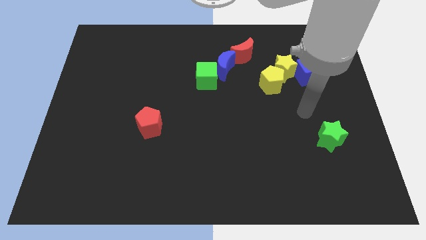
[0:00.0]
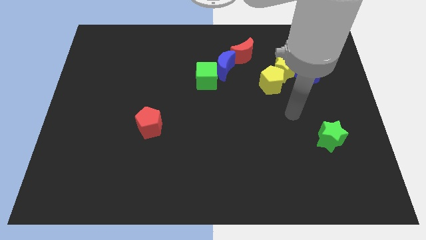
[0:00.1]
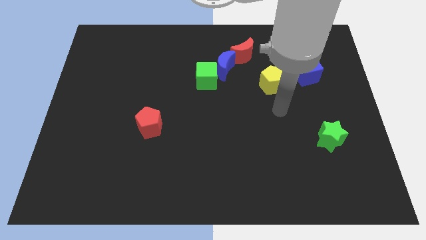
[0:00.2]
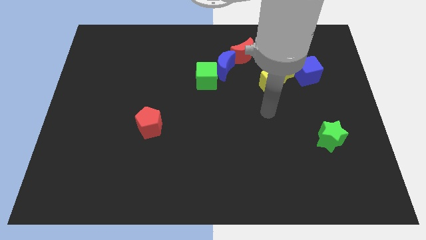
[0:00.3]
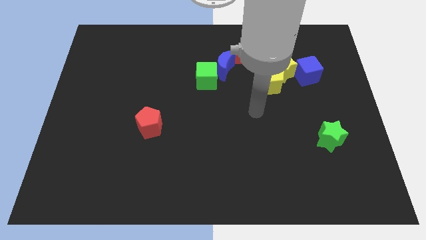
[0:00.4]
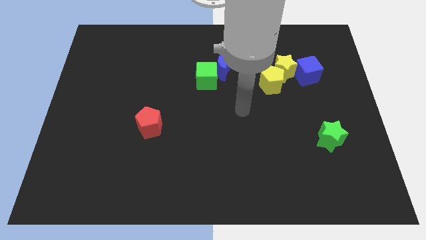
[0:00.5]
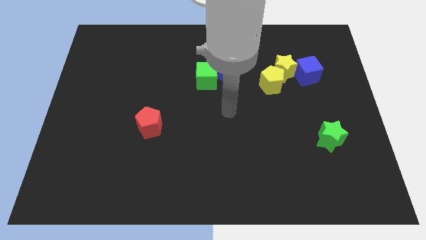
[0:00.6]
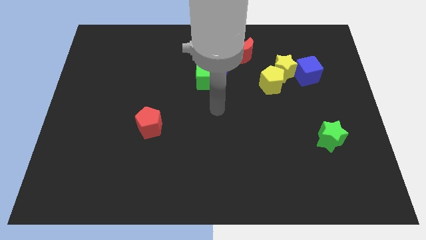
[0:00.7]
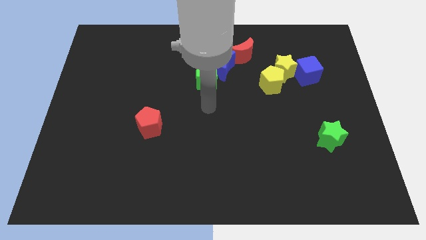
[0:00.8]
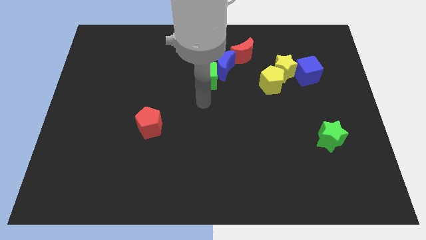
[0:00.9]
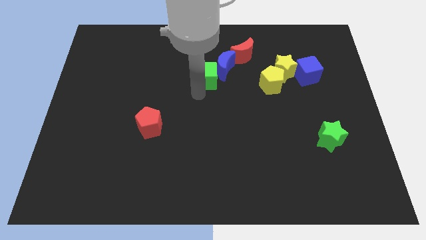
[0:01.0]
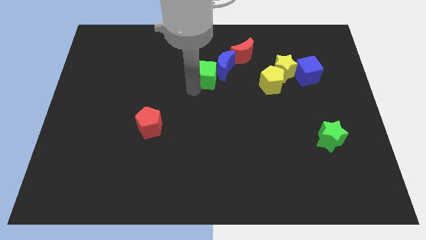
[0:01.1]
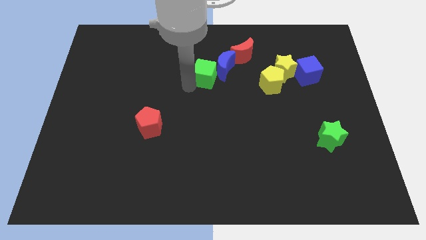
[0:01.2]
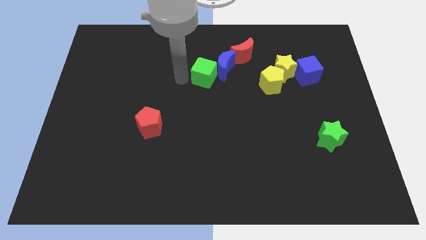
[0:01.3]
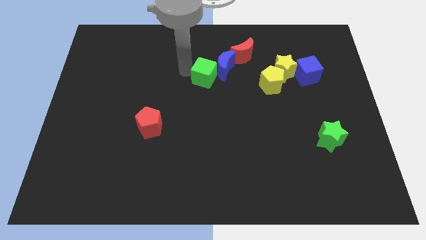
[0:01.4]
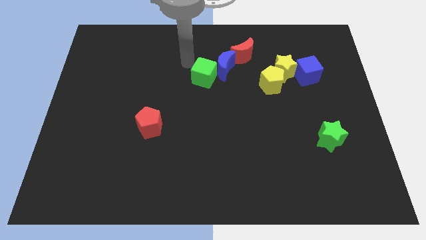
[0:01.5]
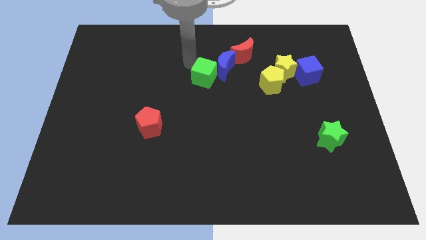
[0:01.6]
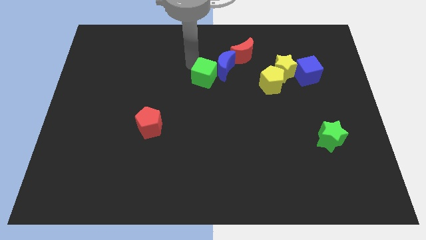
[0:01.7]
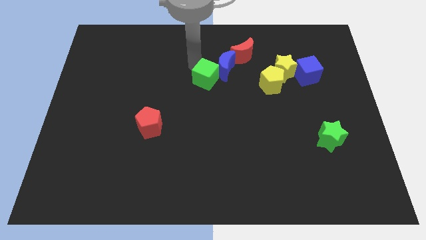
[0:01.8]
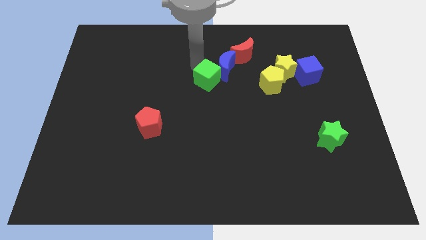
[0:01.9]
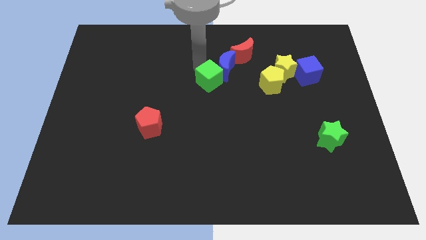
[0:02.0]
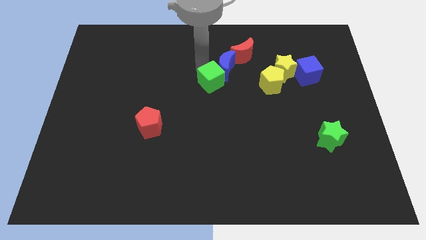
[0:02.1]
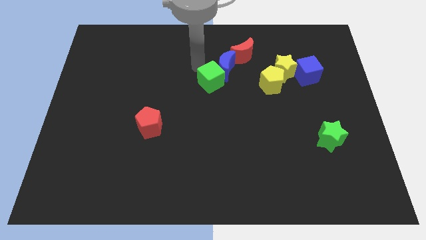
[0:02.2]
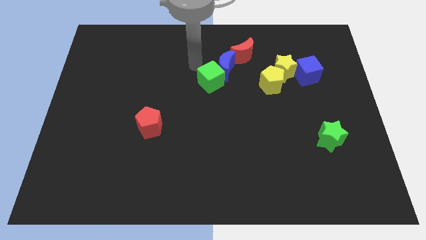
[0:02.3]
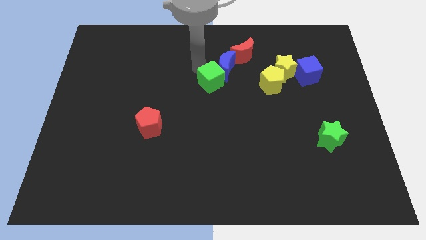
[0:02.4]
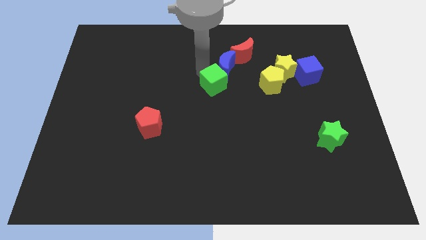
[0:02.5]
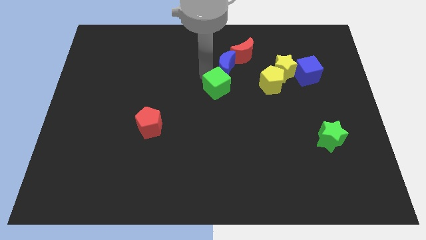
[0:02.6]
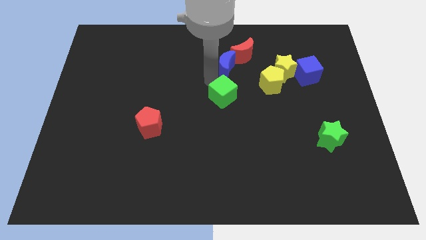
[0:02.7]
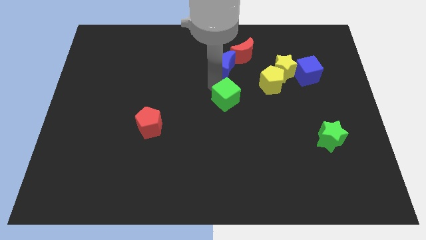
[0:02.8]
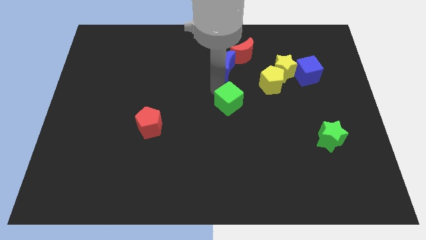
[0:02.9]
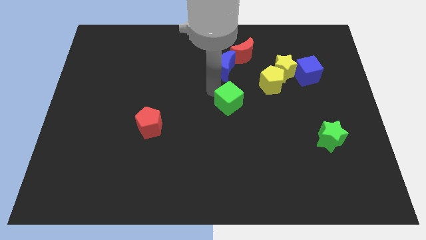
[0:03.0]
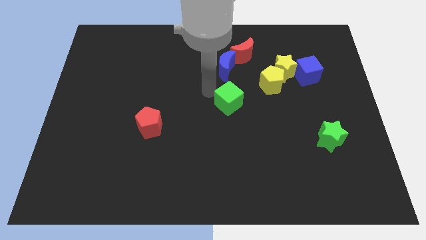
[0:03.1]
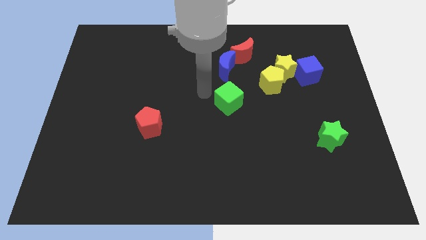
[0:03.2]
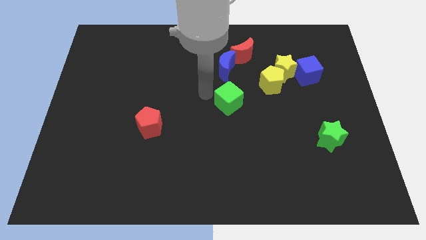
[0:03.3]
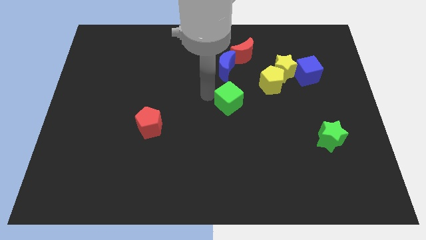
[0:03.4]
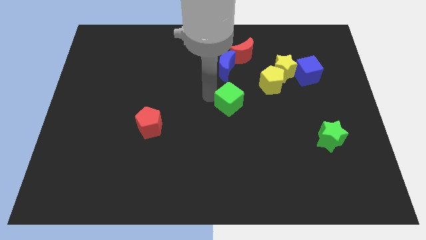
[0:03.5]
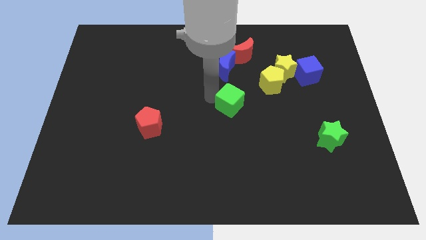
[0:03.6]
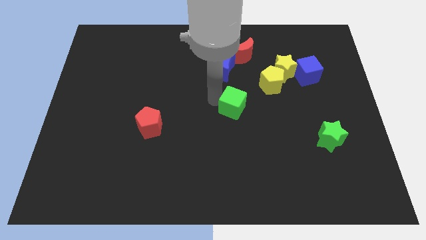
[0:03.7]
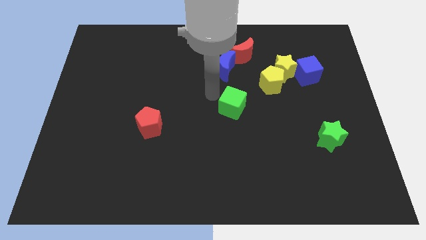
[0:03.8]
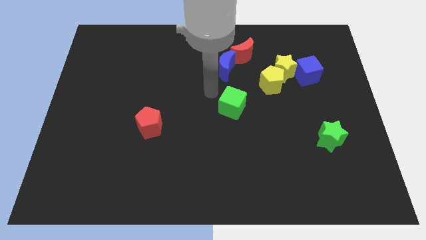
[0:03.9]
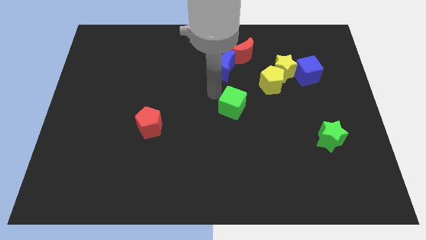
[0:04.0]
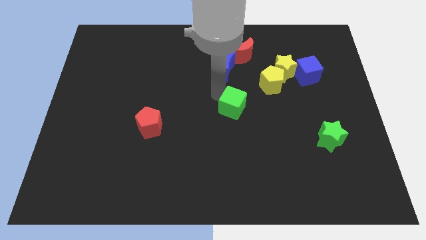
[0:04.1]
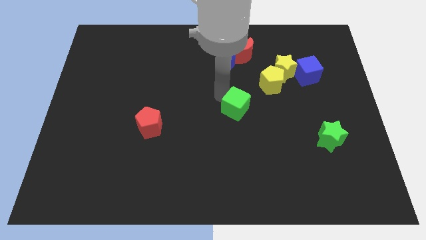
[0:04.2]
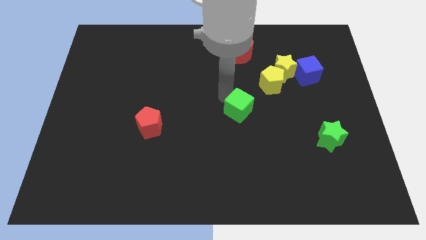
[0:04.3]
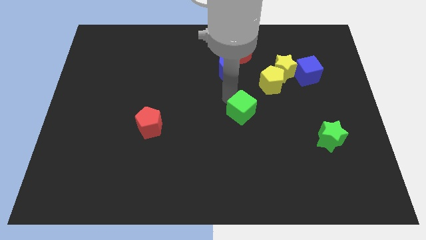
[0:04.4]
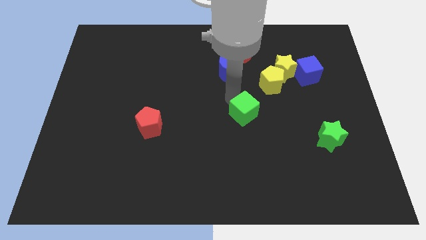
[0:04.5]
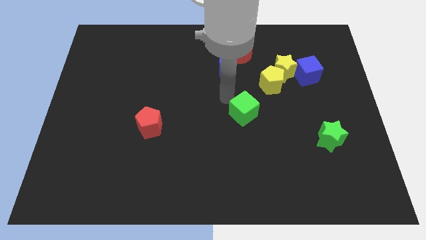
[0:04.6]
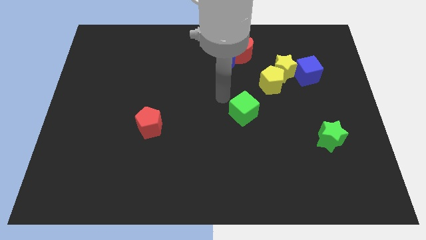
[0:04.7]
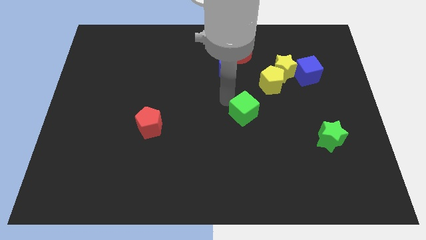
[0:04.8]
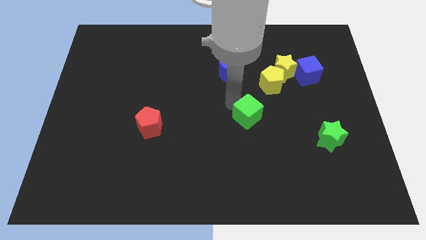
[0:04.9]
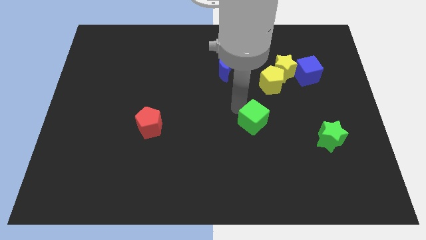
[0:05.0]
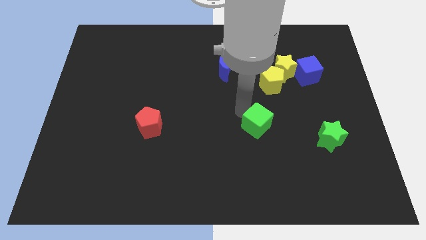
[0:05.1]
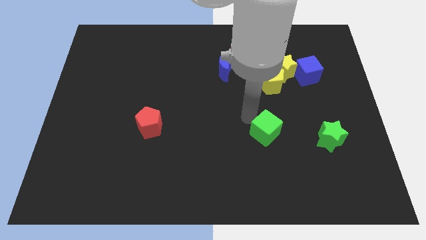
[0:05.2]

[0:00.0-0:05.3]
slide the green cube down and then to the right

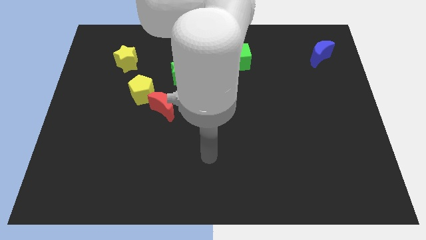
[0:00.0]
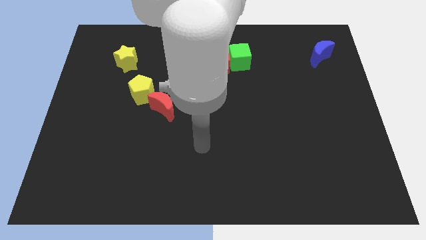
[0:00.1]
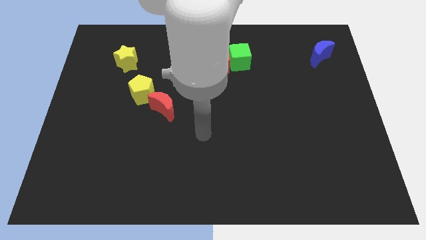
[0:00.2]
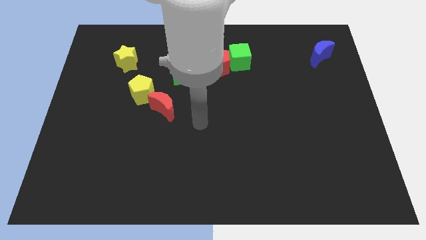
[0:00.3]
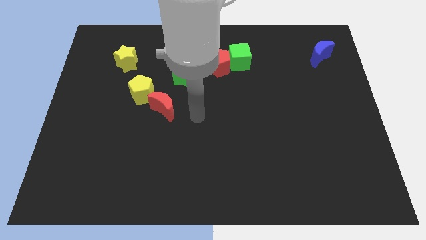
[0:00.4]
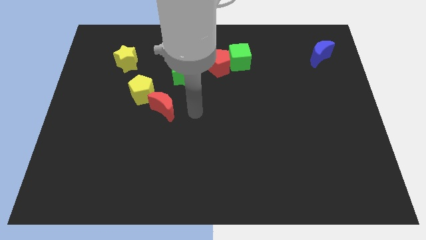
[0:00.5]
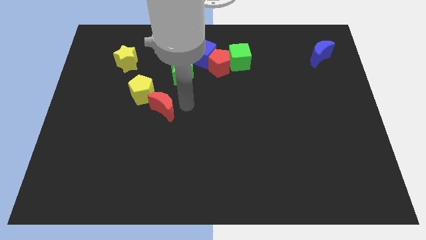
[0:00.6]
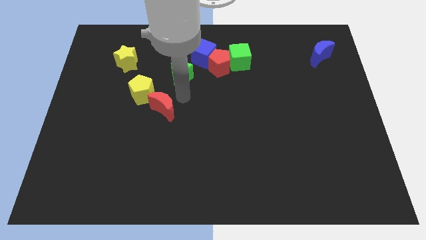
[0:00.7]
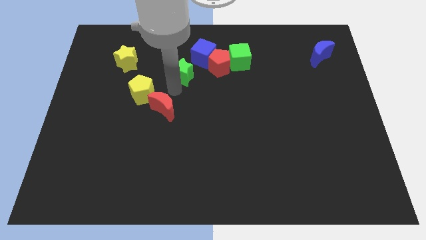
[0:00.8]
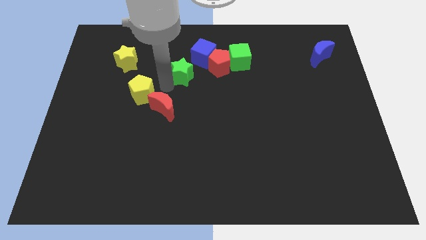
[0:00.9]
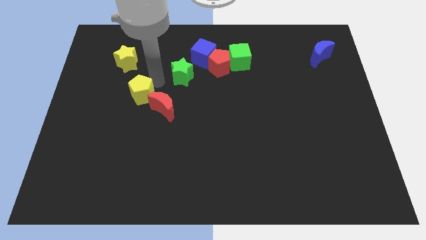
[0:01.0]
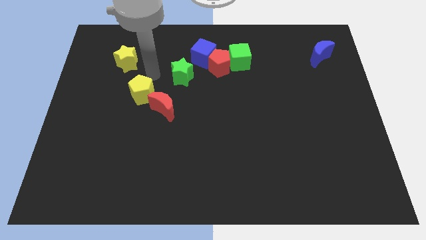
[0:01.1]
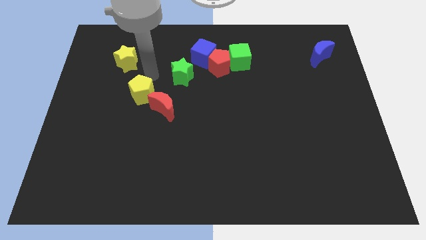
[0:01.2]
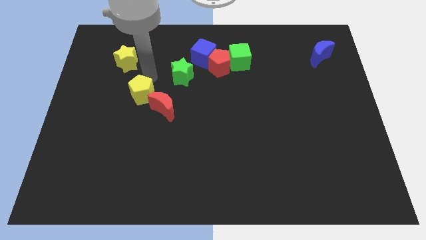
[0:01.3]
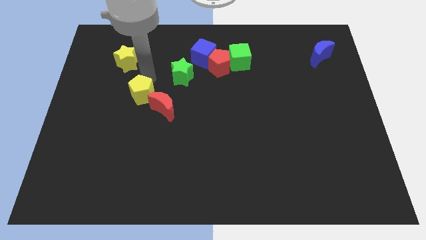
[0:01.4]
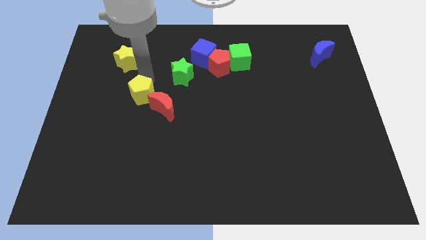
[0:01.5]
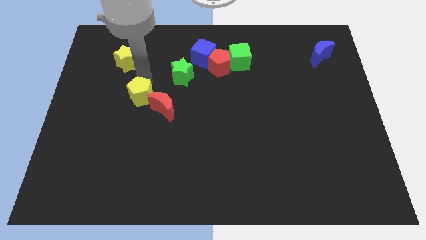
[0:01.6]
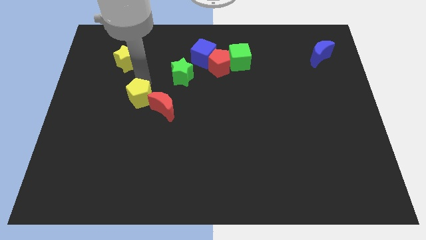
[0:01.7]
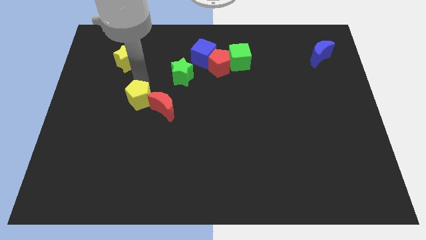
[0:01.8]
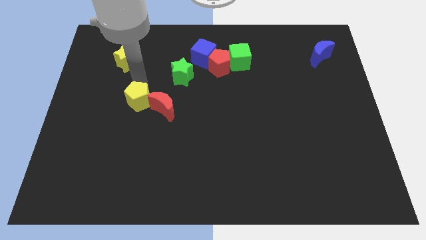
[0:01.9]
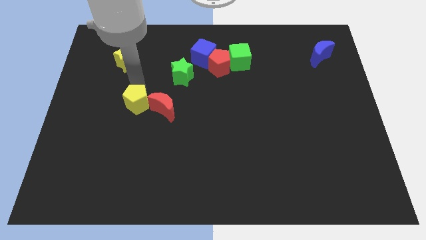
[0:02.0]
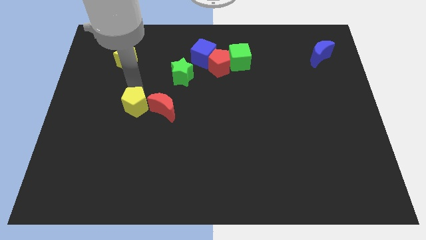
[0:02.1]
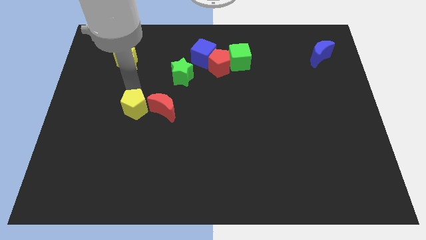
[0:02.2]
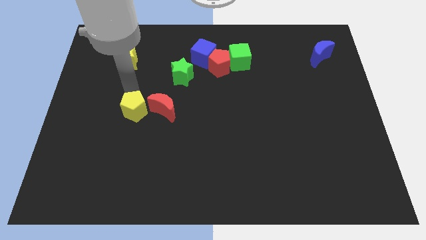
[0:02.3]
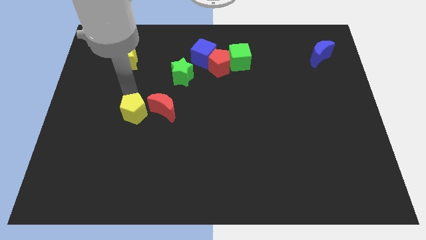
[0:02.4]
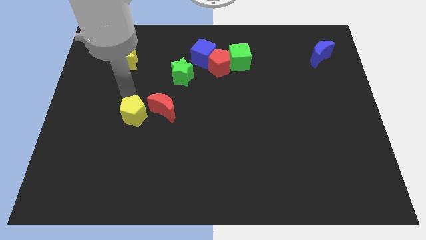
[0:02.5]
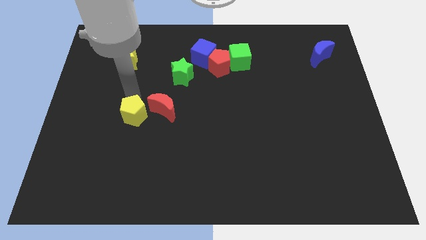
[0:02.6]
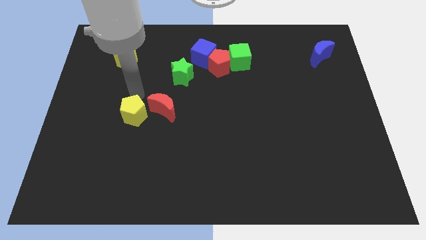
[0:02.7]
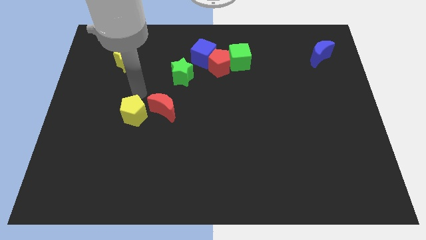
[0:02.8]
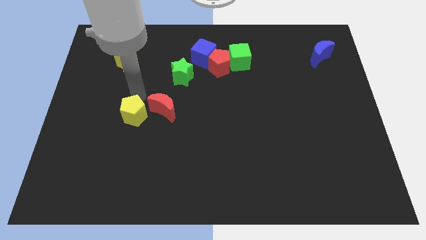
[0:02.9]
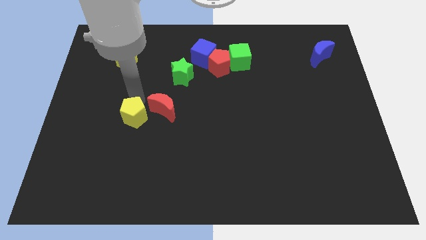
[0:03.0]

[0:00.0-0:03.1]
slightly slide the yellow pentagon down
